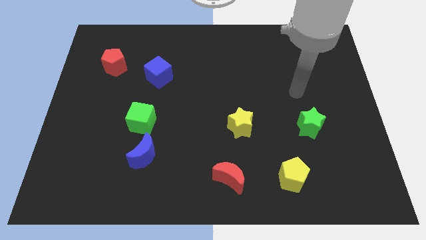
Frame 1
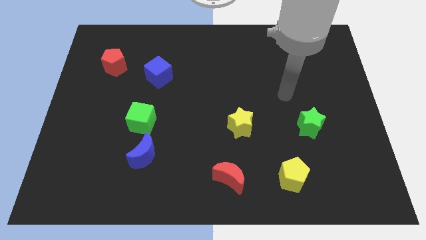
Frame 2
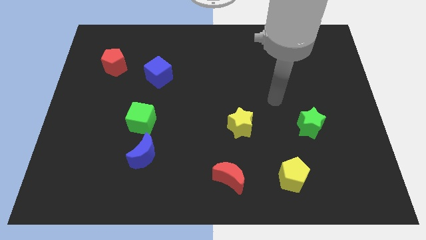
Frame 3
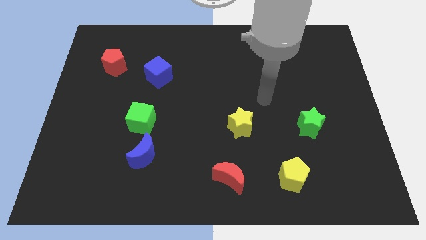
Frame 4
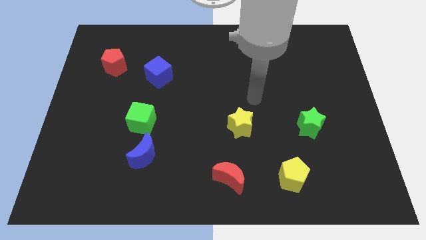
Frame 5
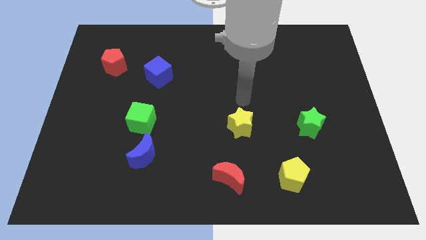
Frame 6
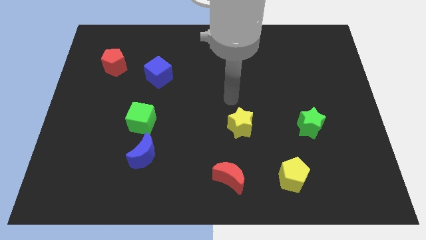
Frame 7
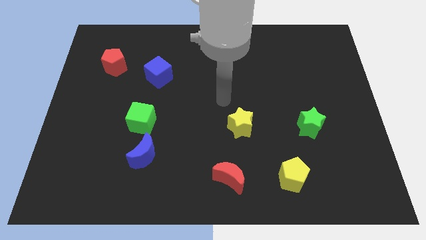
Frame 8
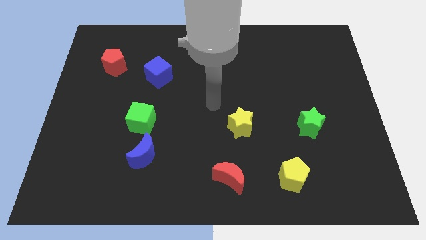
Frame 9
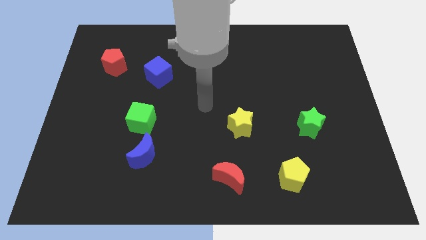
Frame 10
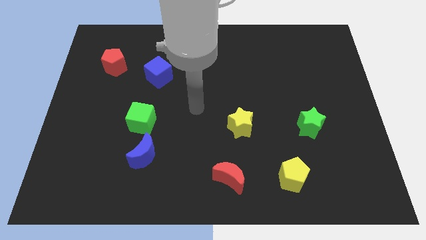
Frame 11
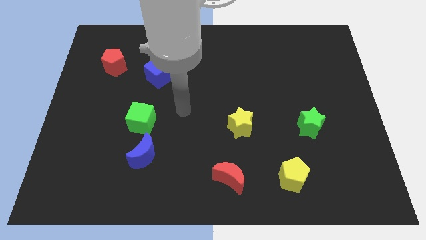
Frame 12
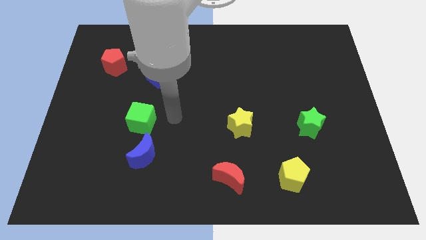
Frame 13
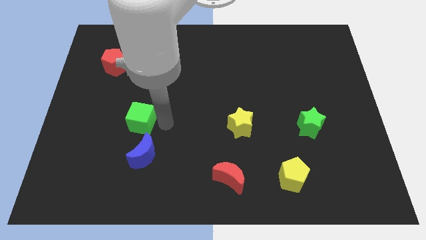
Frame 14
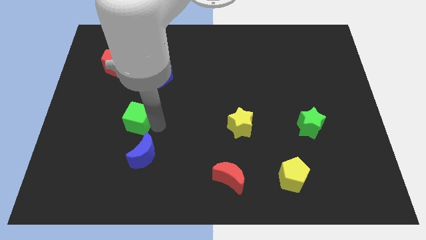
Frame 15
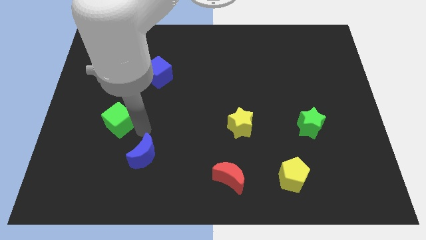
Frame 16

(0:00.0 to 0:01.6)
pull the blue moon apart from the green cube

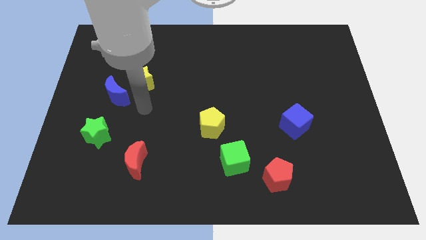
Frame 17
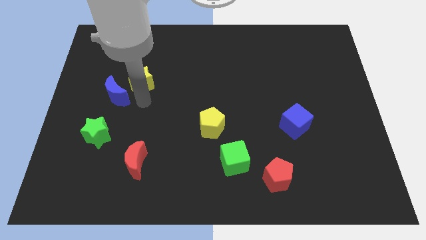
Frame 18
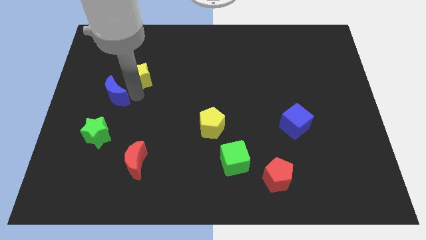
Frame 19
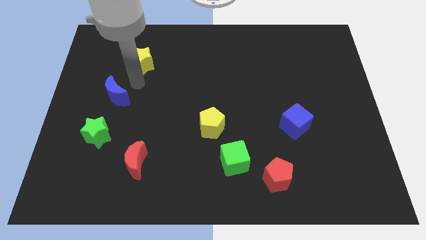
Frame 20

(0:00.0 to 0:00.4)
separate the blue moon from the yellow star

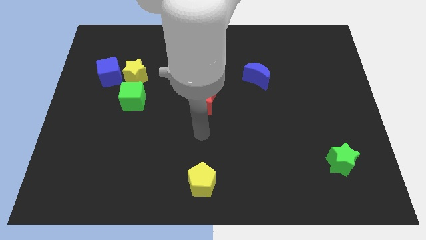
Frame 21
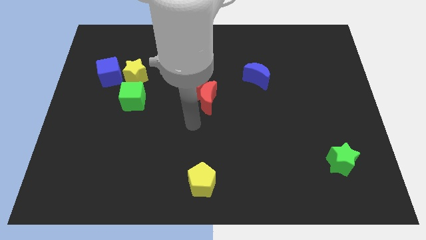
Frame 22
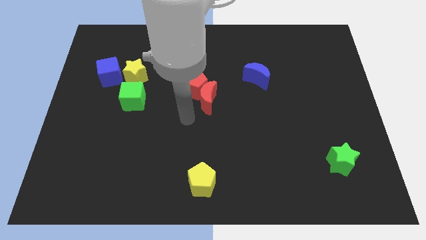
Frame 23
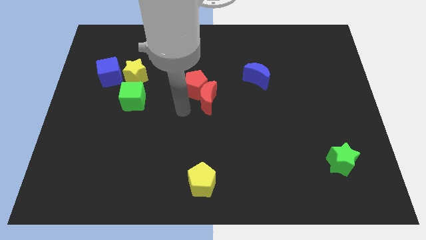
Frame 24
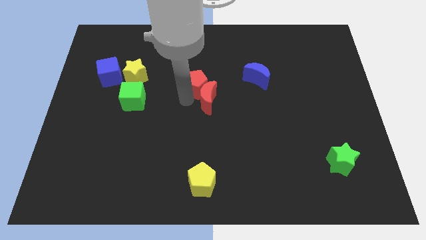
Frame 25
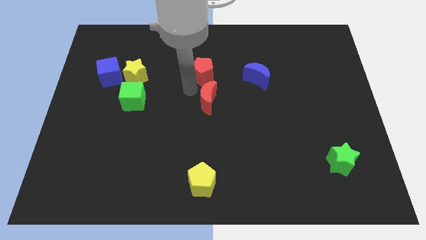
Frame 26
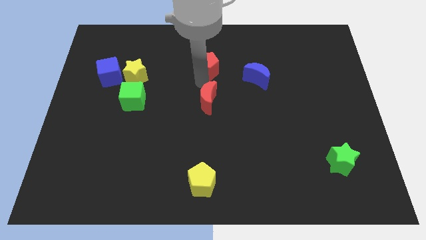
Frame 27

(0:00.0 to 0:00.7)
separate the red moon from the red pentagon

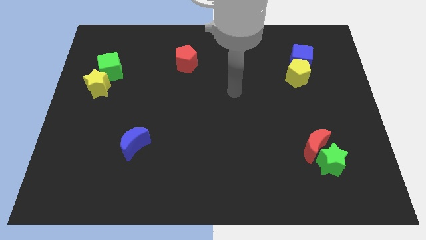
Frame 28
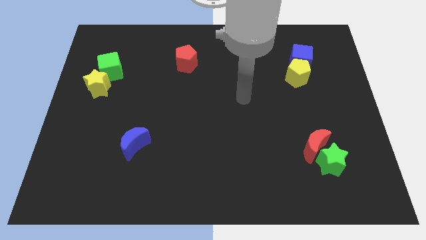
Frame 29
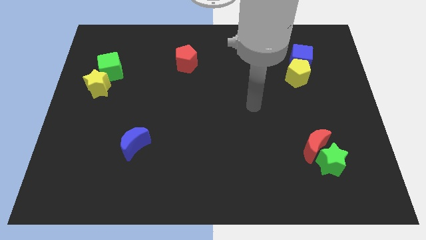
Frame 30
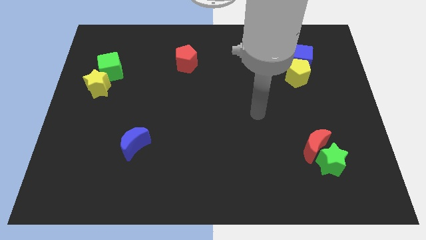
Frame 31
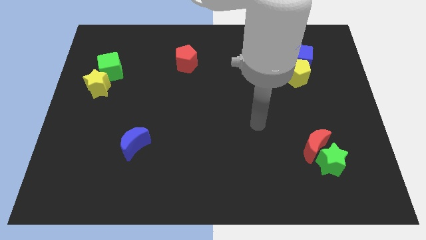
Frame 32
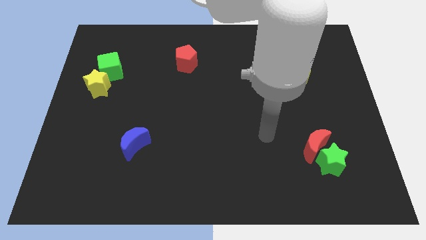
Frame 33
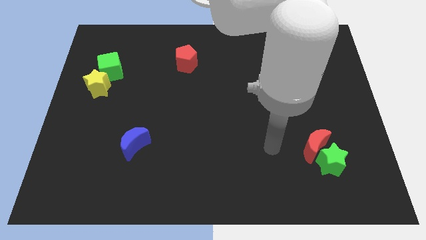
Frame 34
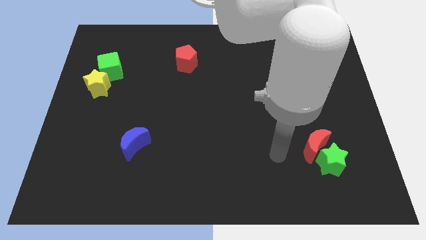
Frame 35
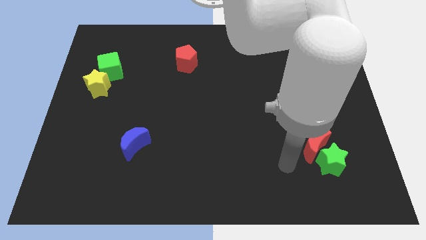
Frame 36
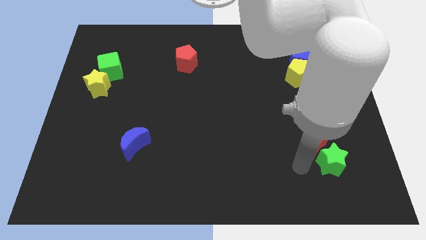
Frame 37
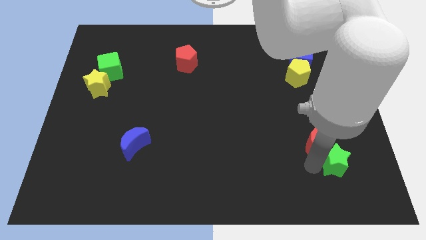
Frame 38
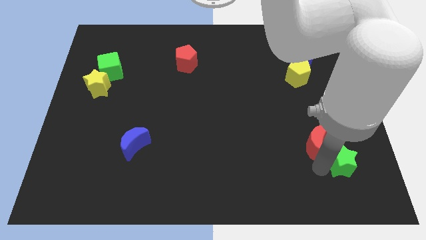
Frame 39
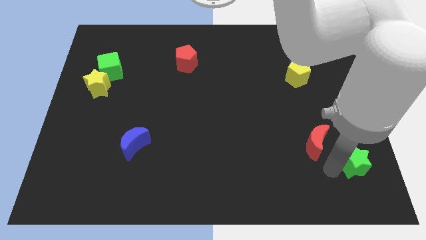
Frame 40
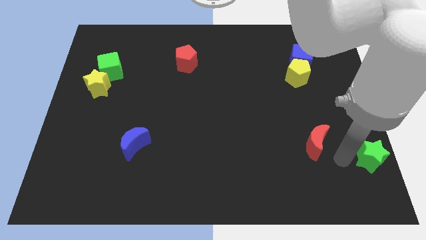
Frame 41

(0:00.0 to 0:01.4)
move the red moon away from the green star

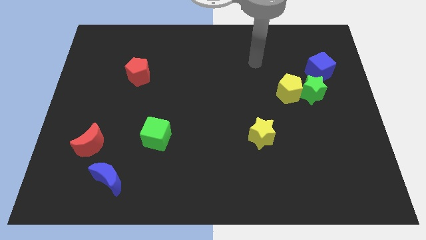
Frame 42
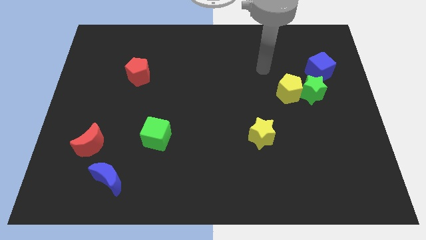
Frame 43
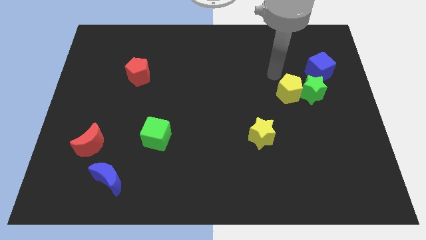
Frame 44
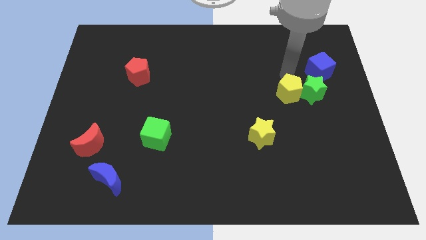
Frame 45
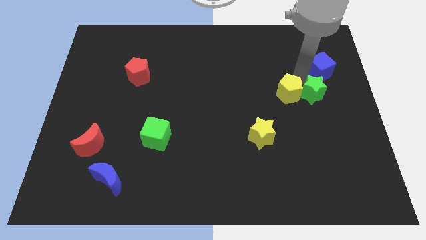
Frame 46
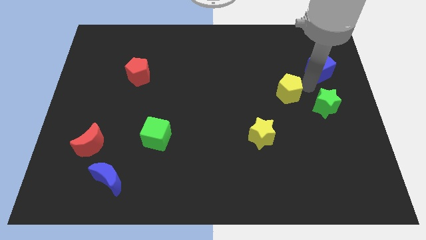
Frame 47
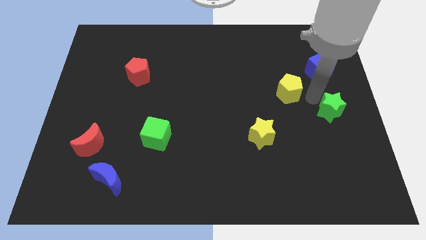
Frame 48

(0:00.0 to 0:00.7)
separate the yellow pentagon from the green star

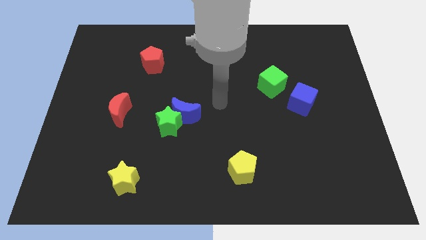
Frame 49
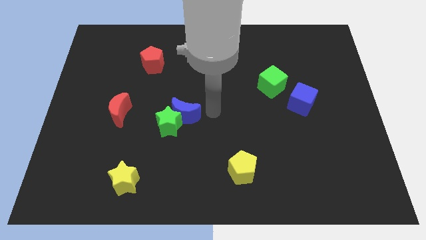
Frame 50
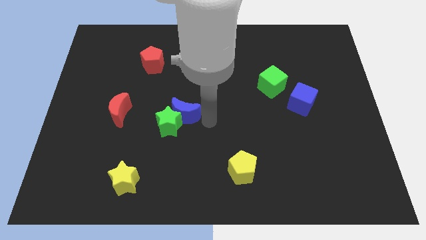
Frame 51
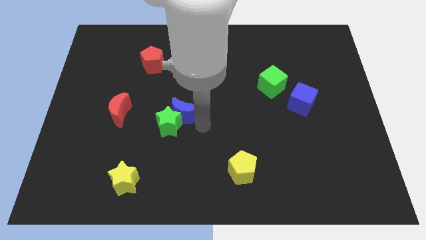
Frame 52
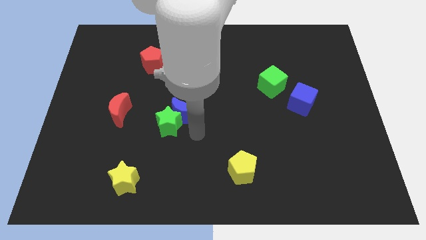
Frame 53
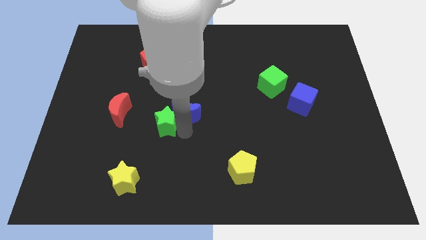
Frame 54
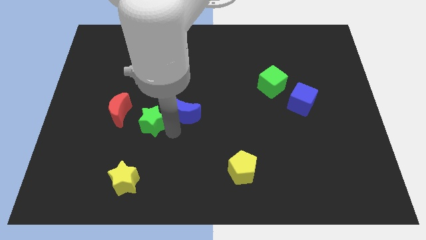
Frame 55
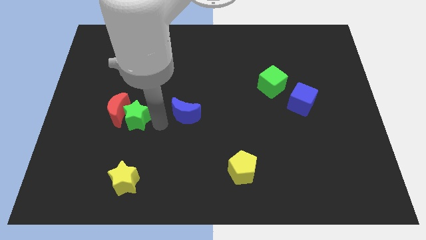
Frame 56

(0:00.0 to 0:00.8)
separate the blue moon from the green star

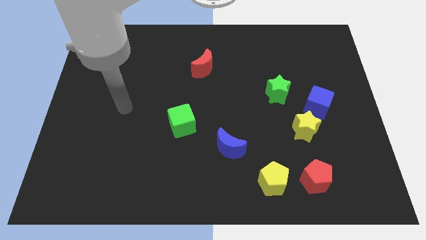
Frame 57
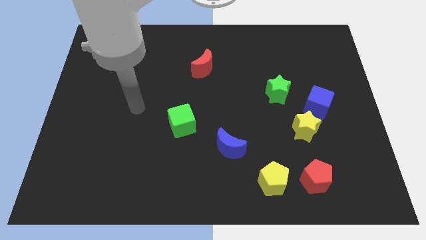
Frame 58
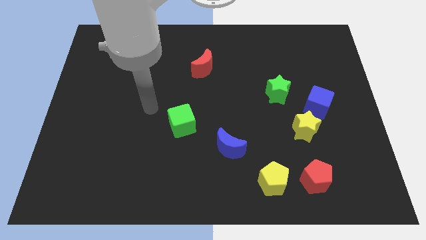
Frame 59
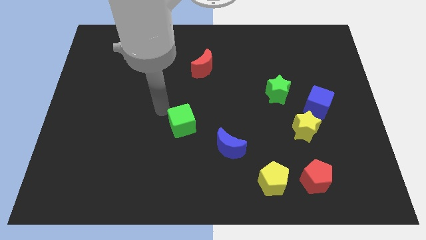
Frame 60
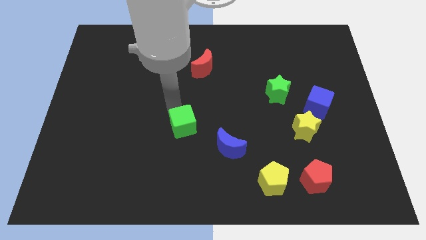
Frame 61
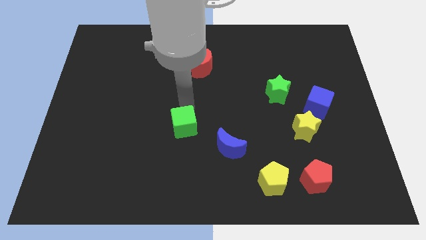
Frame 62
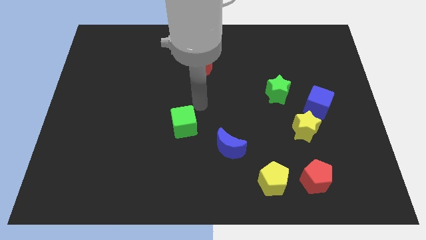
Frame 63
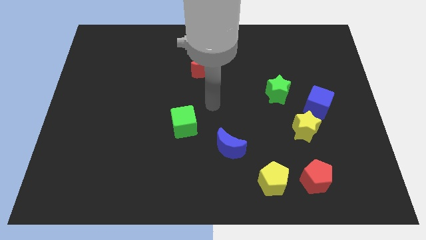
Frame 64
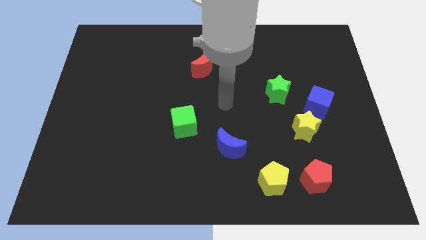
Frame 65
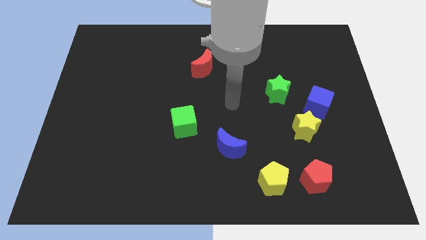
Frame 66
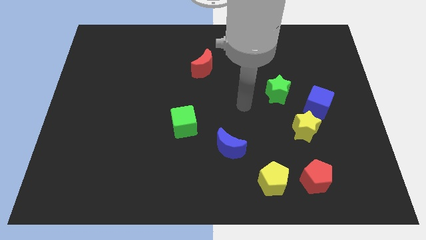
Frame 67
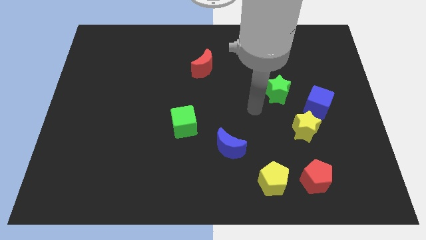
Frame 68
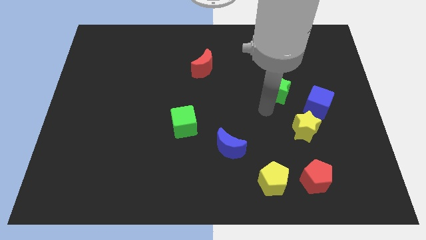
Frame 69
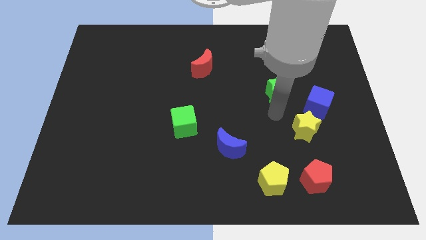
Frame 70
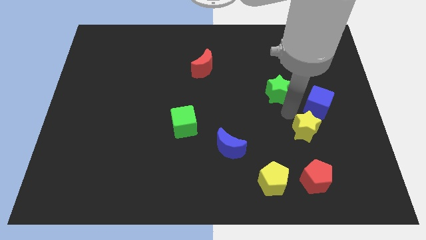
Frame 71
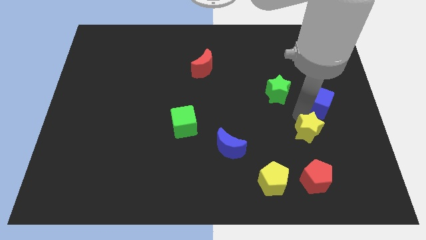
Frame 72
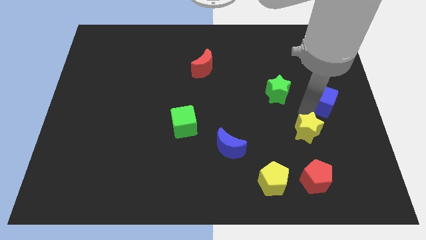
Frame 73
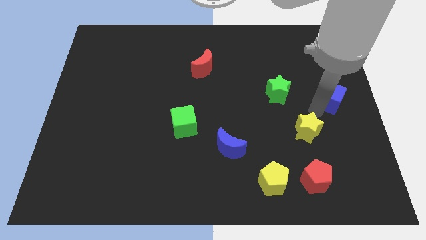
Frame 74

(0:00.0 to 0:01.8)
pull the yellow star apart from the blue cube

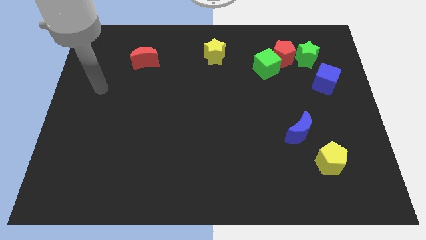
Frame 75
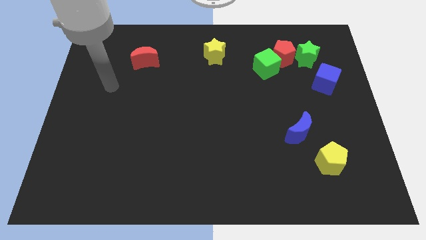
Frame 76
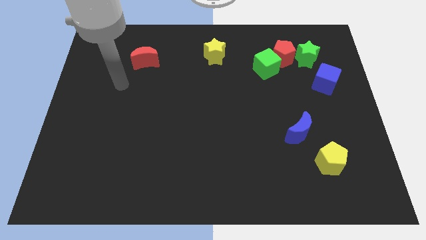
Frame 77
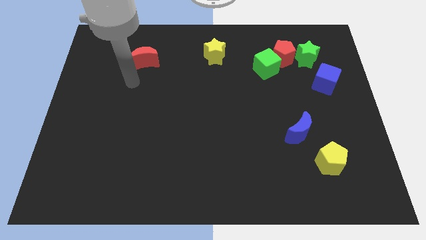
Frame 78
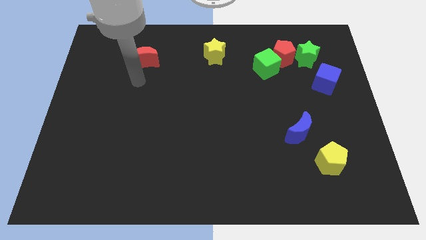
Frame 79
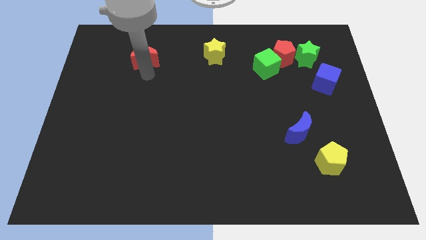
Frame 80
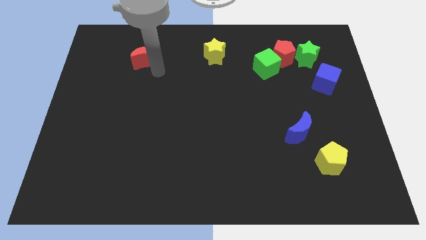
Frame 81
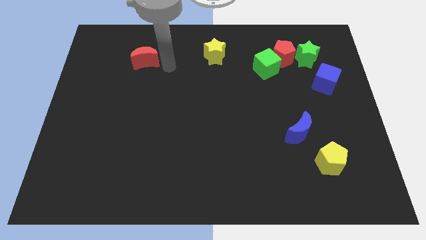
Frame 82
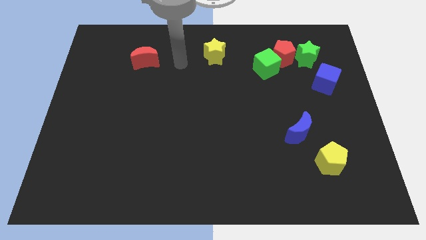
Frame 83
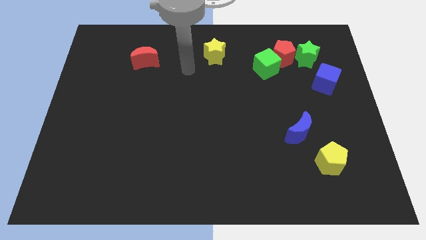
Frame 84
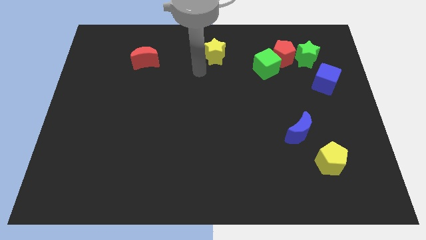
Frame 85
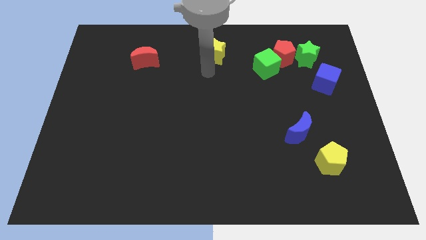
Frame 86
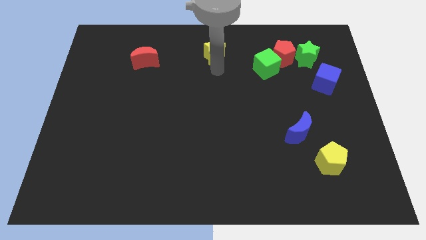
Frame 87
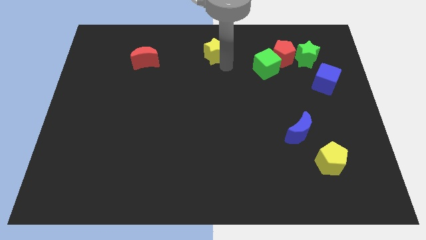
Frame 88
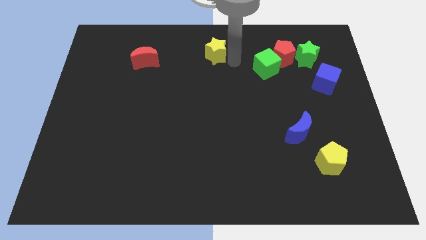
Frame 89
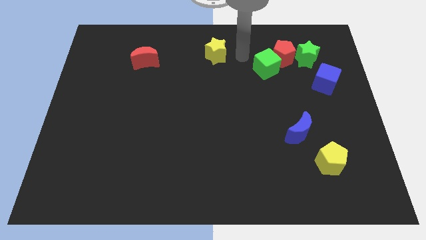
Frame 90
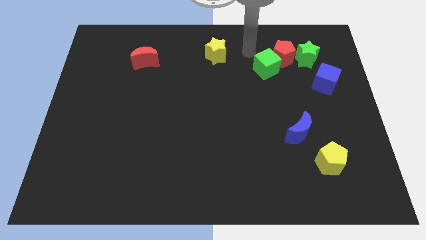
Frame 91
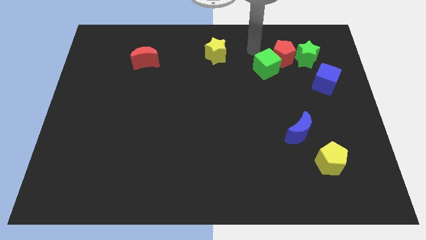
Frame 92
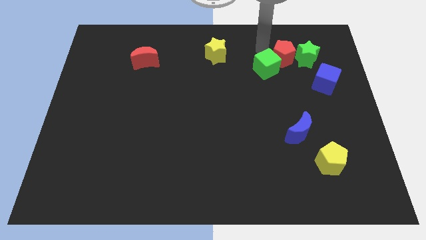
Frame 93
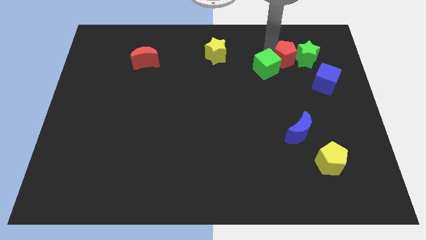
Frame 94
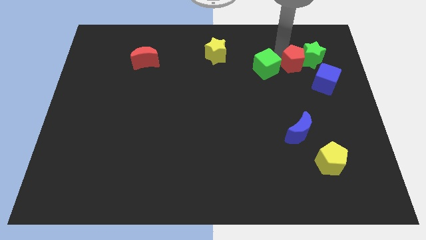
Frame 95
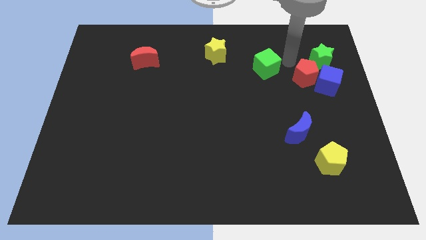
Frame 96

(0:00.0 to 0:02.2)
separate the green cube from the red pentagon
